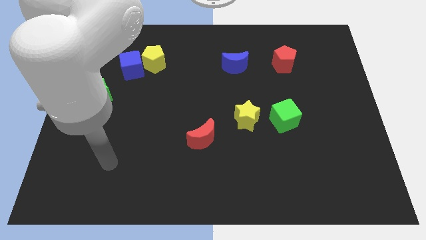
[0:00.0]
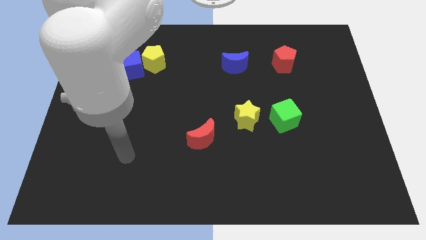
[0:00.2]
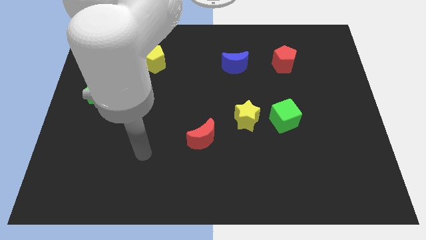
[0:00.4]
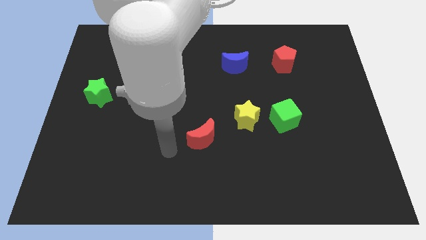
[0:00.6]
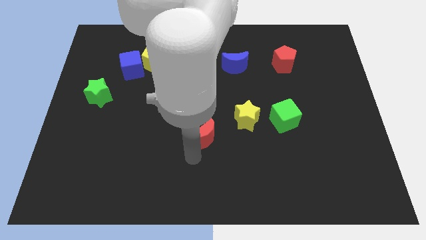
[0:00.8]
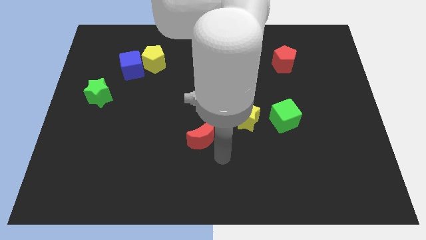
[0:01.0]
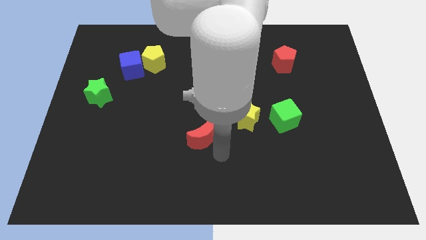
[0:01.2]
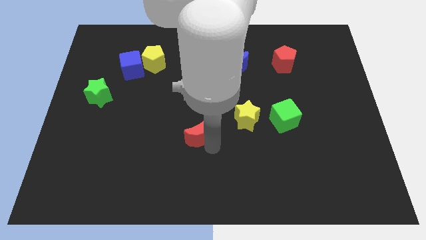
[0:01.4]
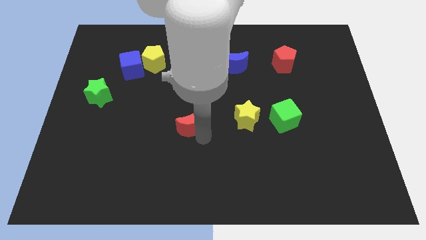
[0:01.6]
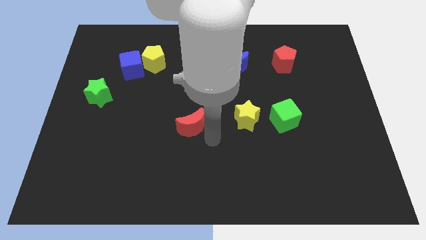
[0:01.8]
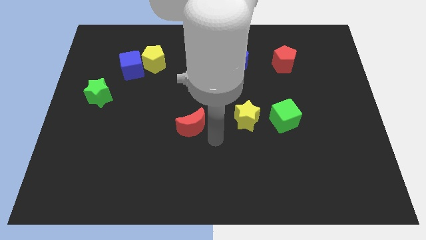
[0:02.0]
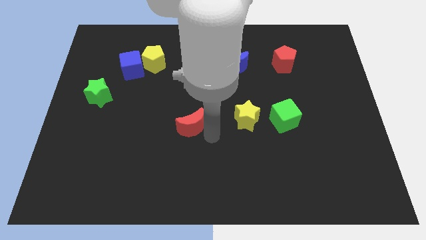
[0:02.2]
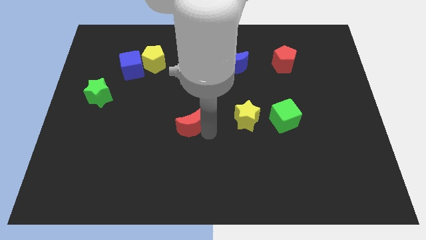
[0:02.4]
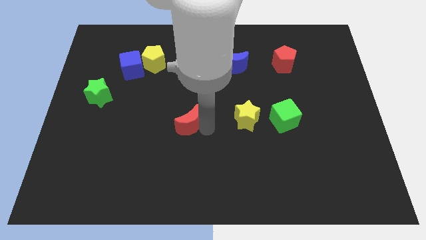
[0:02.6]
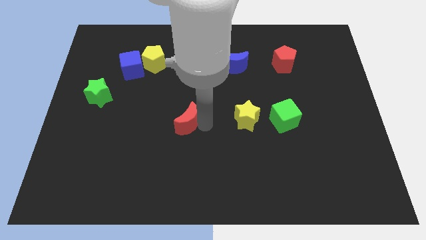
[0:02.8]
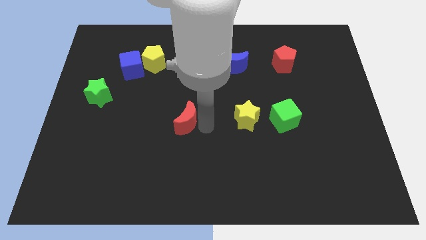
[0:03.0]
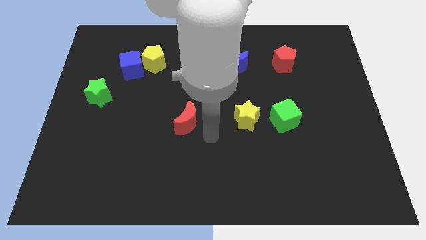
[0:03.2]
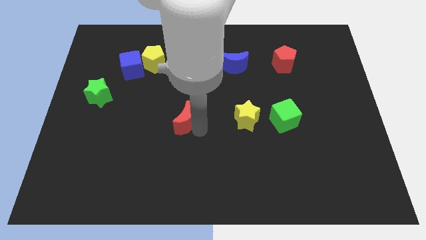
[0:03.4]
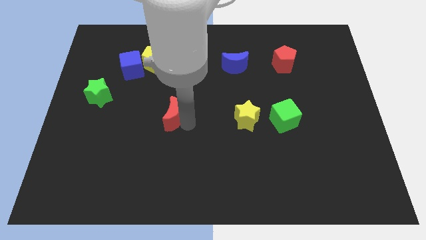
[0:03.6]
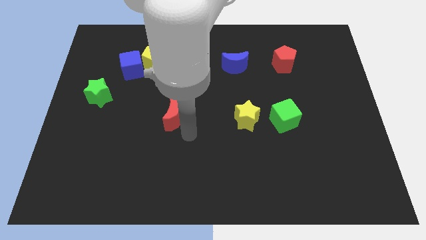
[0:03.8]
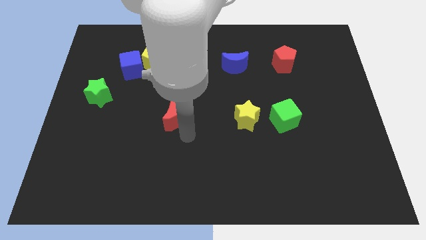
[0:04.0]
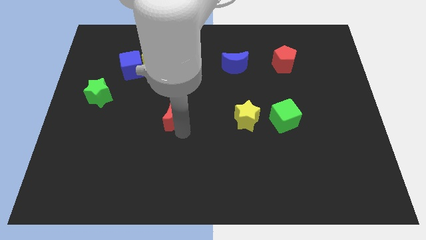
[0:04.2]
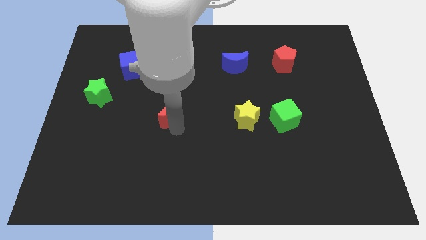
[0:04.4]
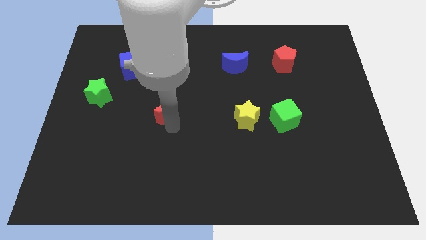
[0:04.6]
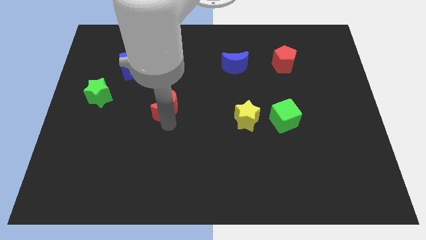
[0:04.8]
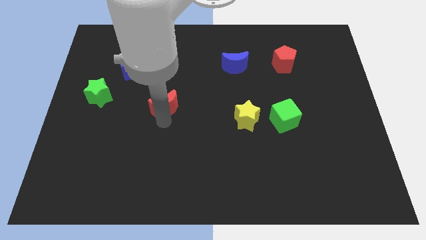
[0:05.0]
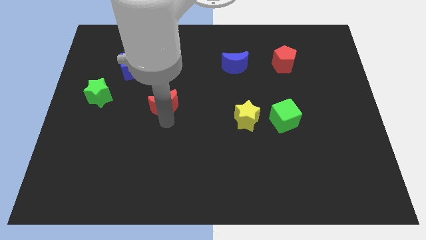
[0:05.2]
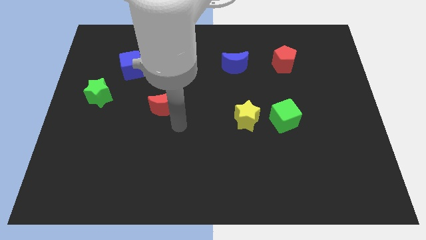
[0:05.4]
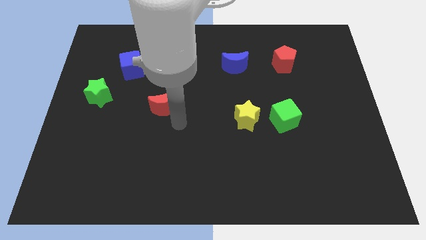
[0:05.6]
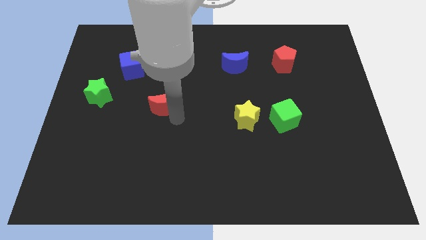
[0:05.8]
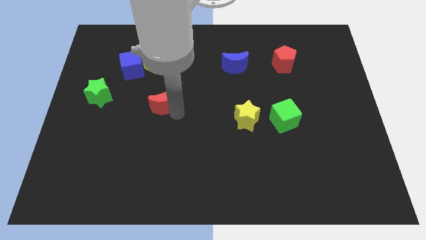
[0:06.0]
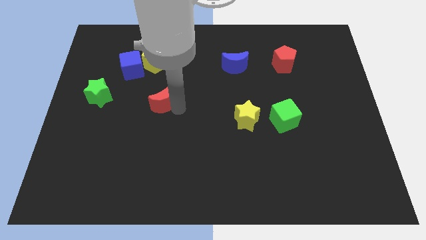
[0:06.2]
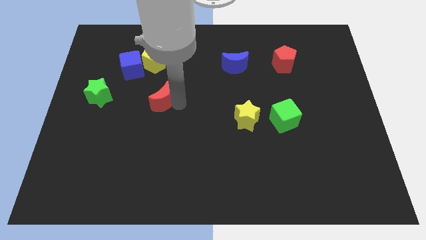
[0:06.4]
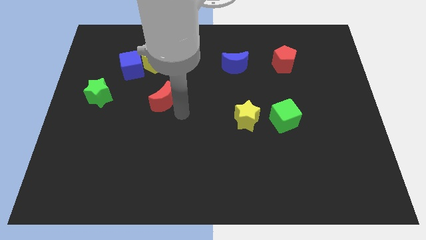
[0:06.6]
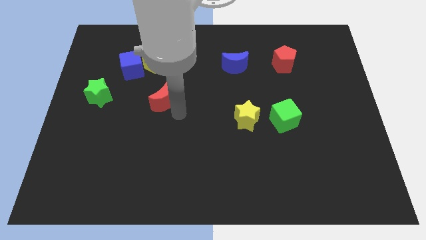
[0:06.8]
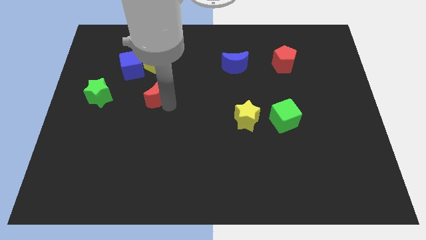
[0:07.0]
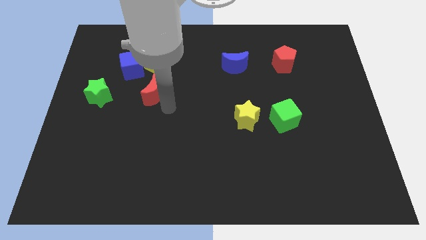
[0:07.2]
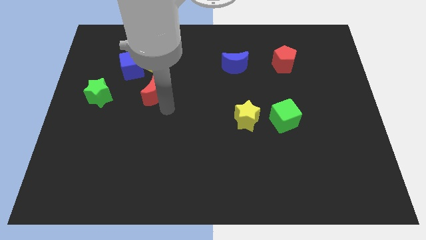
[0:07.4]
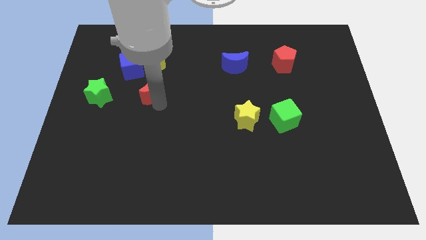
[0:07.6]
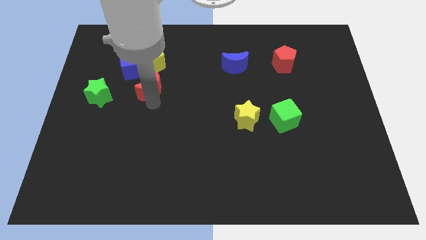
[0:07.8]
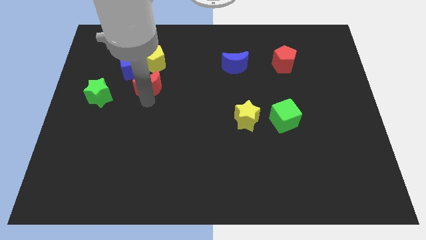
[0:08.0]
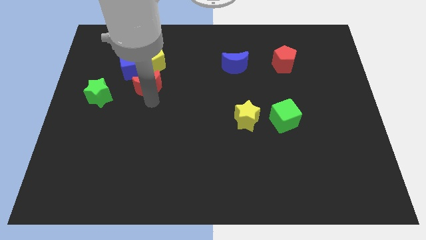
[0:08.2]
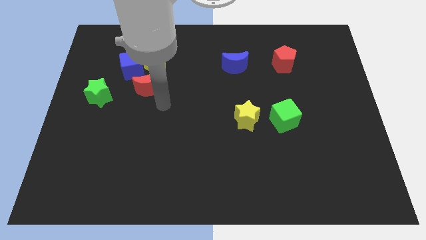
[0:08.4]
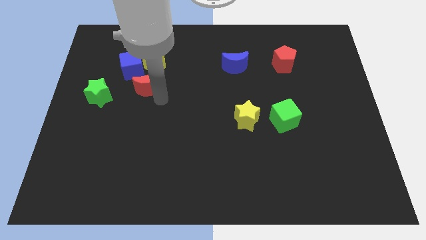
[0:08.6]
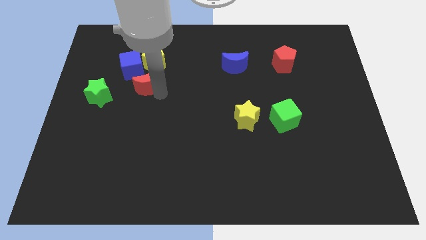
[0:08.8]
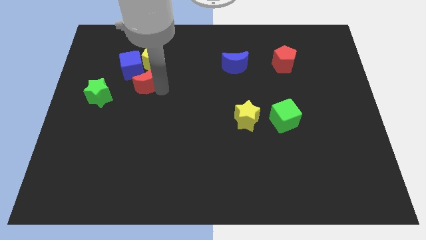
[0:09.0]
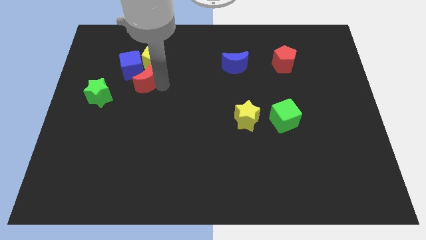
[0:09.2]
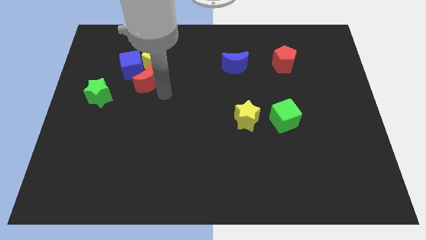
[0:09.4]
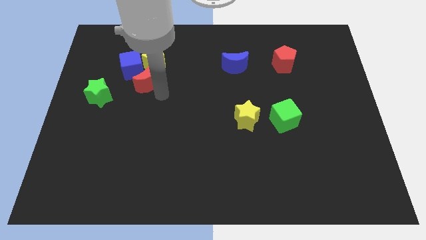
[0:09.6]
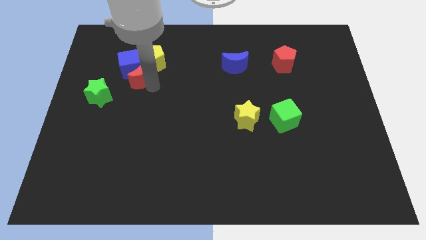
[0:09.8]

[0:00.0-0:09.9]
push the red moon to the blue cube

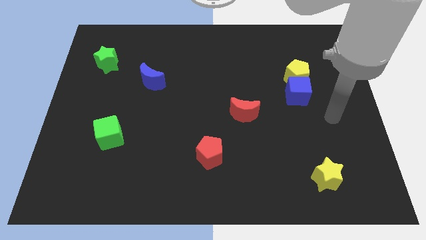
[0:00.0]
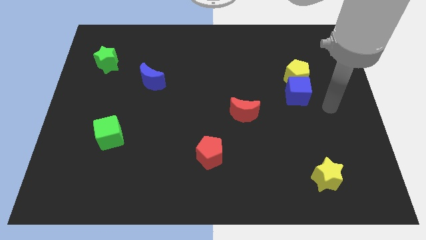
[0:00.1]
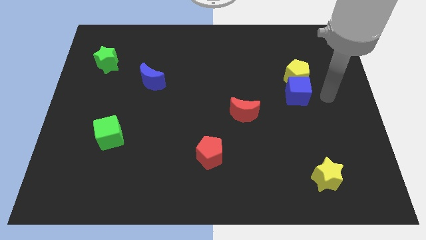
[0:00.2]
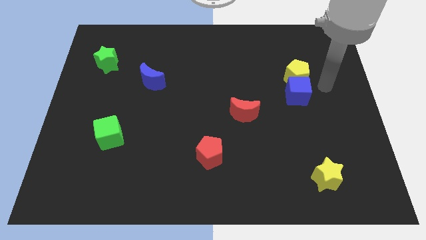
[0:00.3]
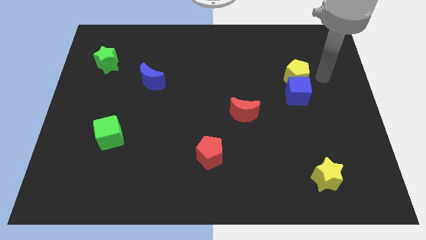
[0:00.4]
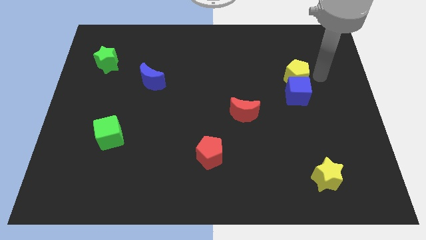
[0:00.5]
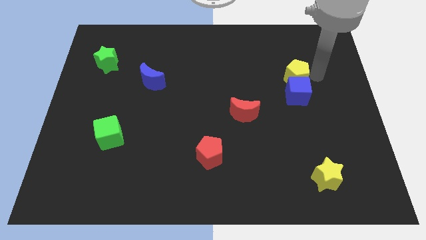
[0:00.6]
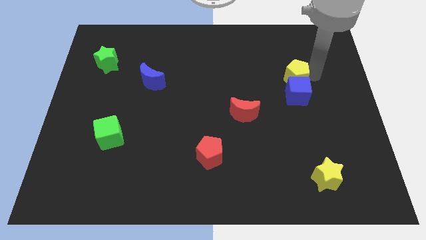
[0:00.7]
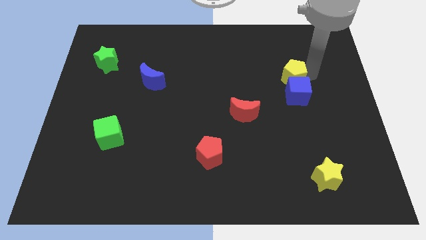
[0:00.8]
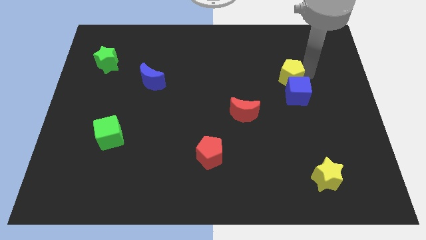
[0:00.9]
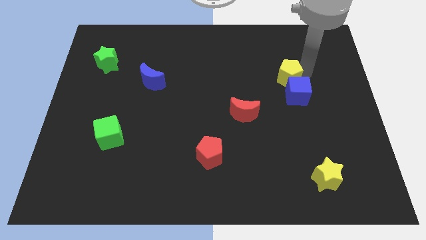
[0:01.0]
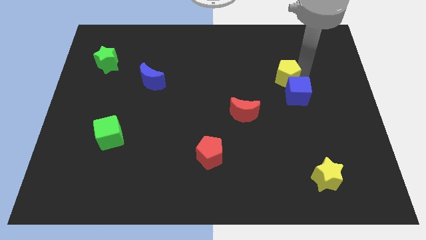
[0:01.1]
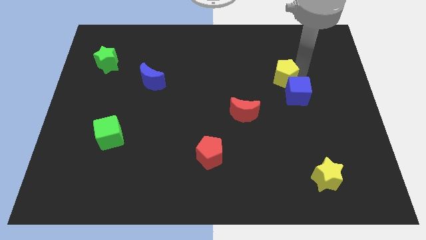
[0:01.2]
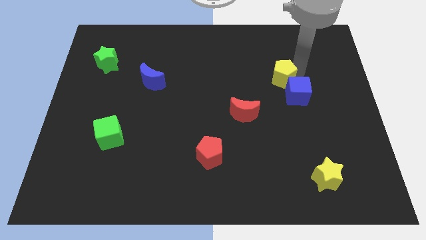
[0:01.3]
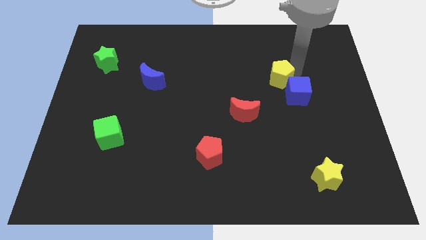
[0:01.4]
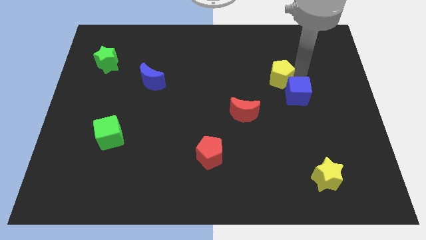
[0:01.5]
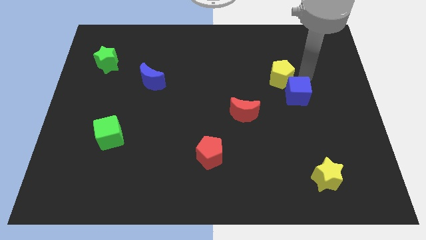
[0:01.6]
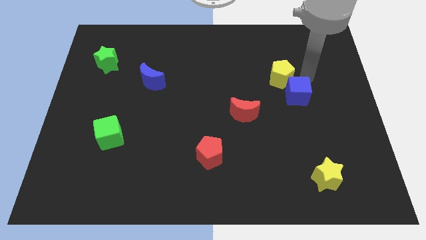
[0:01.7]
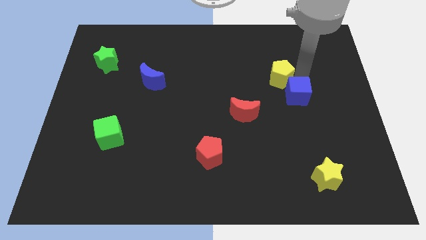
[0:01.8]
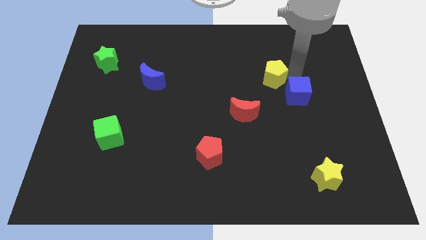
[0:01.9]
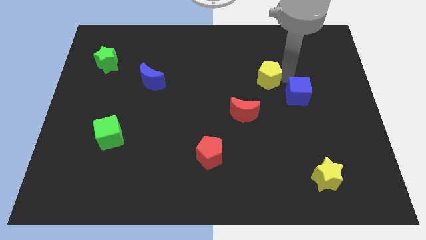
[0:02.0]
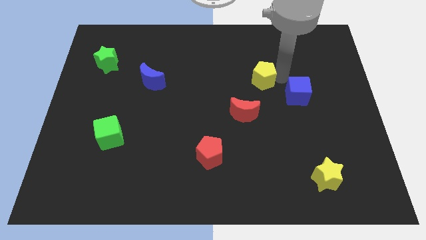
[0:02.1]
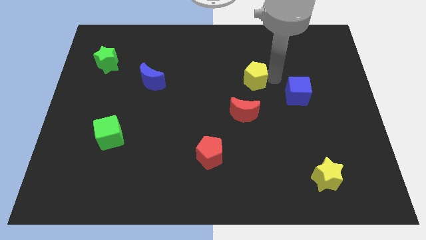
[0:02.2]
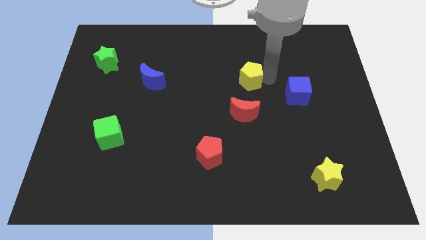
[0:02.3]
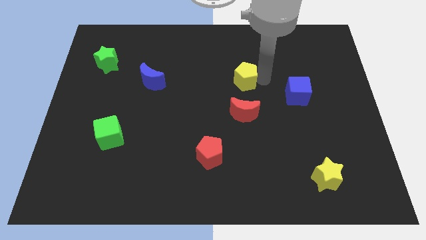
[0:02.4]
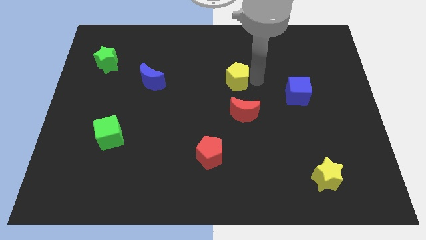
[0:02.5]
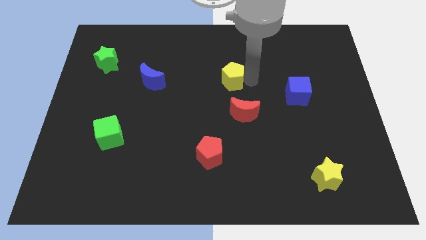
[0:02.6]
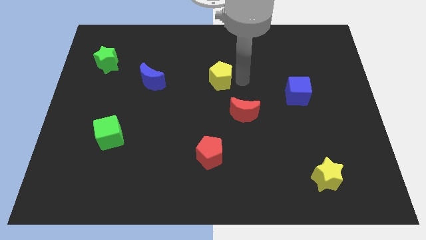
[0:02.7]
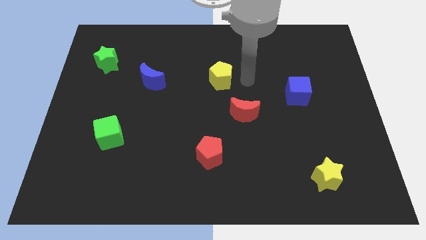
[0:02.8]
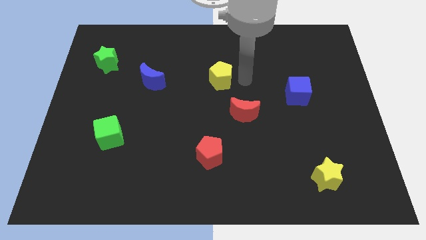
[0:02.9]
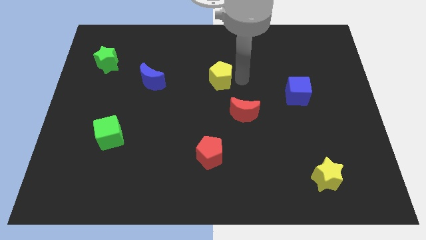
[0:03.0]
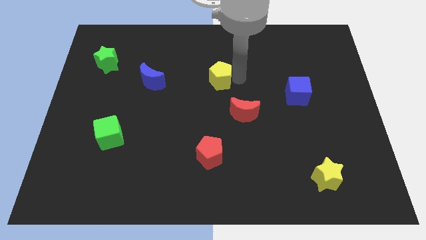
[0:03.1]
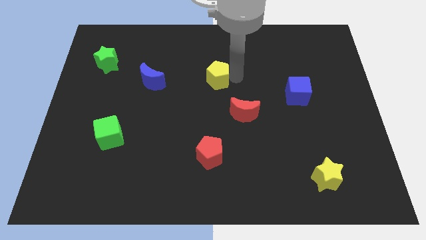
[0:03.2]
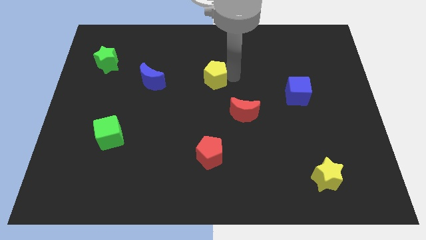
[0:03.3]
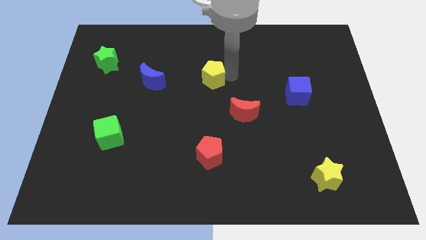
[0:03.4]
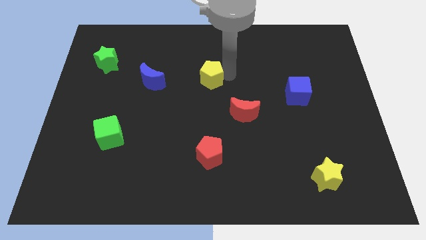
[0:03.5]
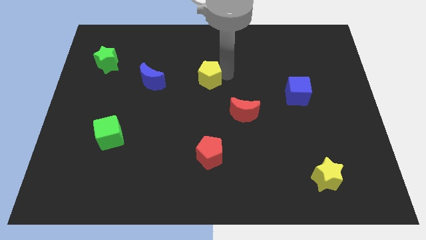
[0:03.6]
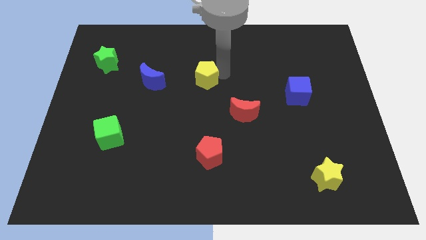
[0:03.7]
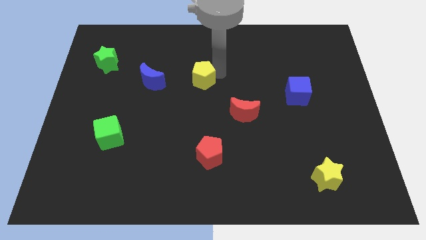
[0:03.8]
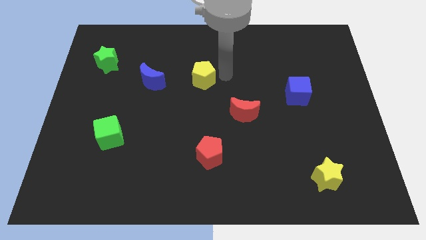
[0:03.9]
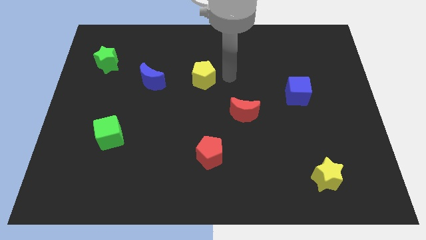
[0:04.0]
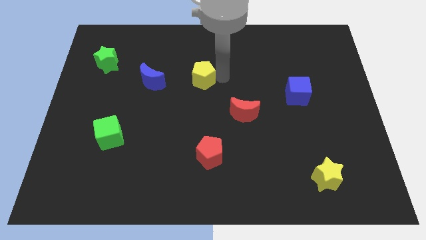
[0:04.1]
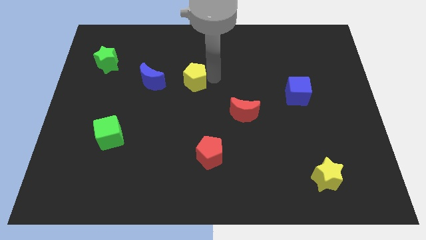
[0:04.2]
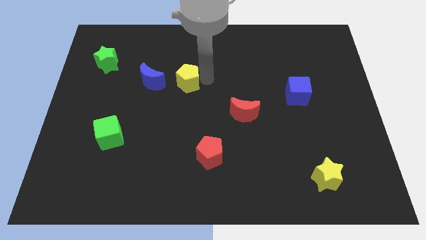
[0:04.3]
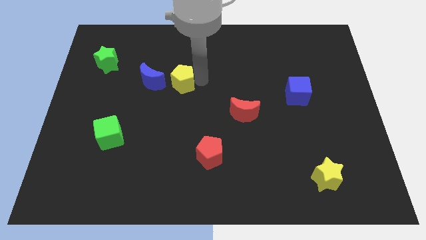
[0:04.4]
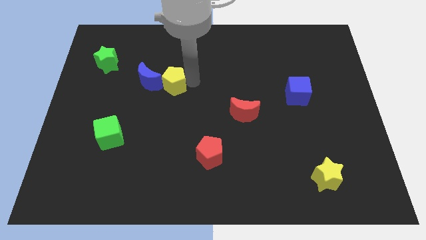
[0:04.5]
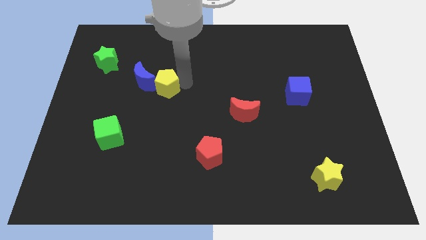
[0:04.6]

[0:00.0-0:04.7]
push the yellow pentagon towards the blue moon
